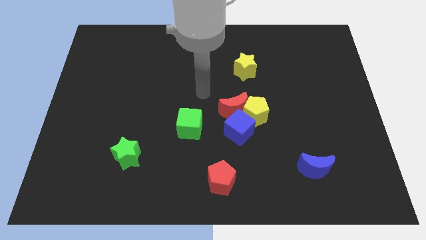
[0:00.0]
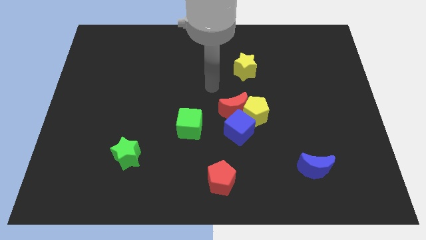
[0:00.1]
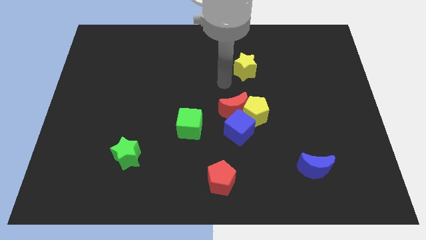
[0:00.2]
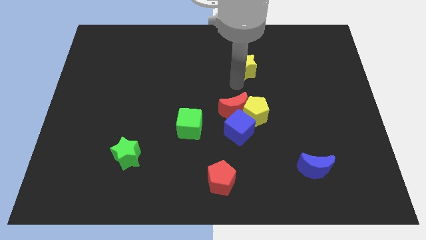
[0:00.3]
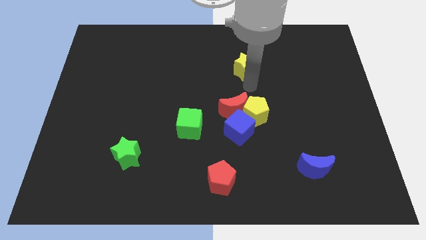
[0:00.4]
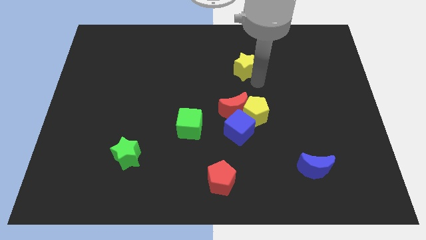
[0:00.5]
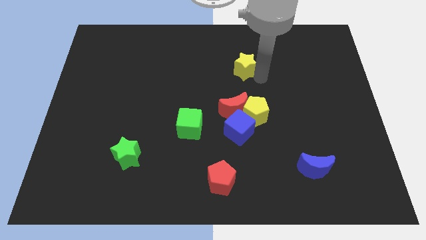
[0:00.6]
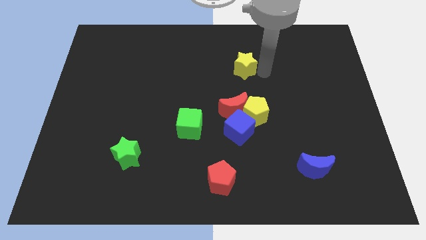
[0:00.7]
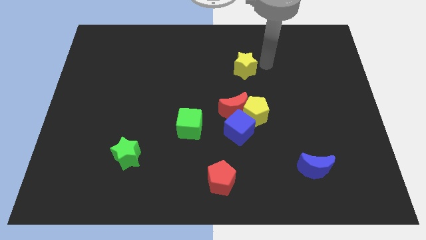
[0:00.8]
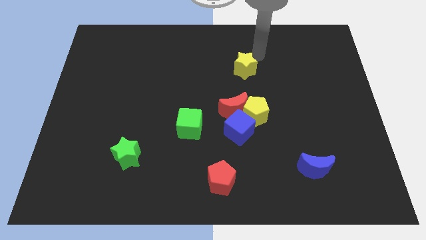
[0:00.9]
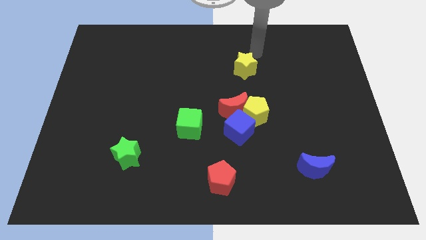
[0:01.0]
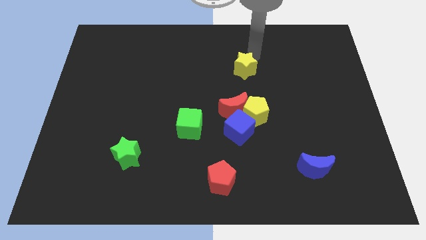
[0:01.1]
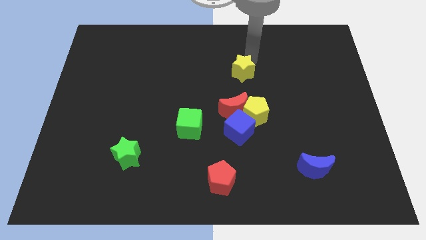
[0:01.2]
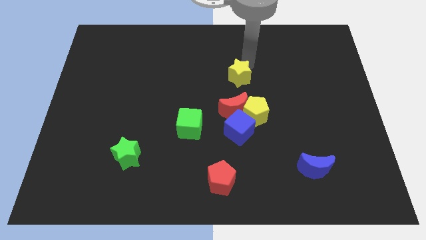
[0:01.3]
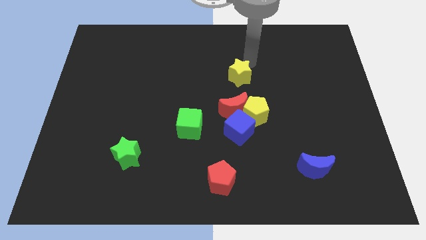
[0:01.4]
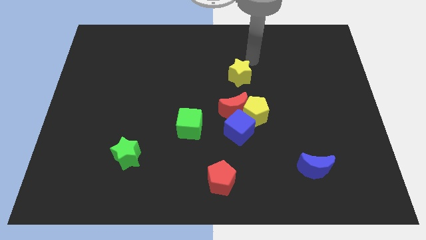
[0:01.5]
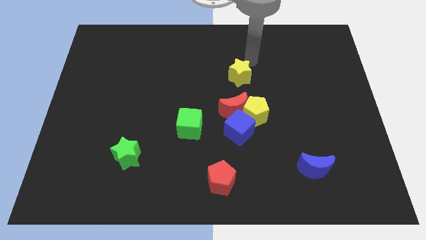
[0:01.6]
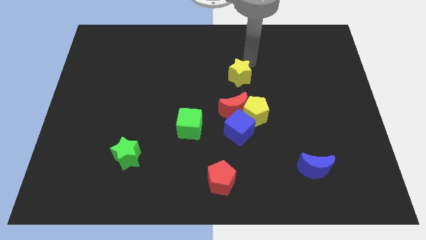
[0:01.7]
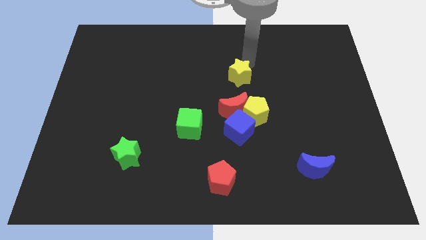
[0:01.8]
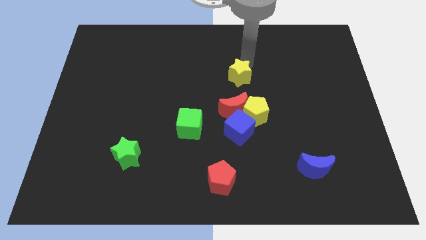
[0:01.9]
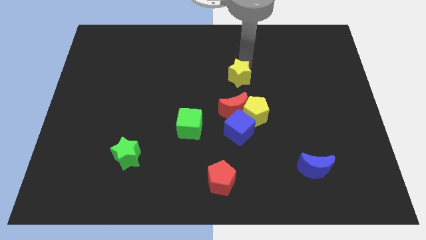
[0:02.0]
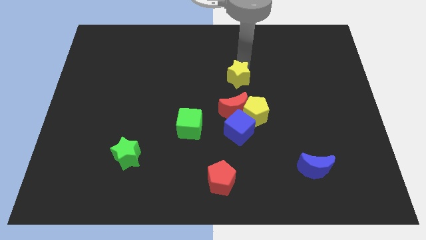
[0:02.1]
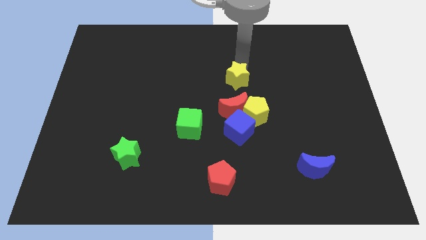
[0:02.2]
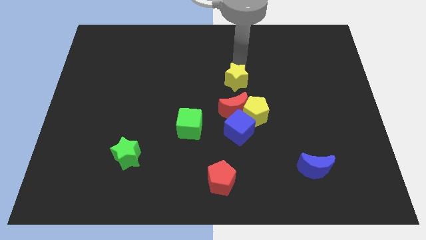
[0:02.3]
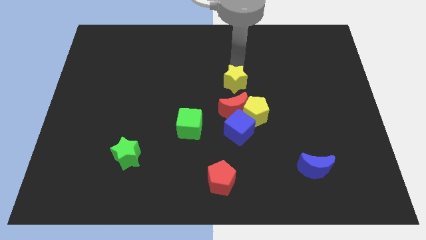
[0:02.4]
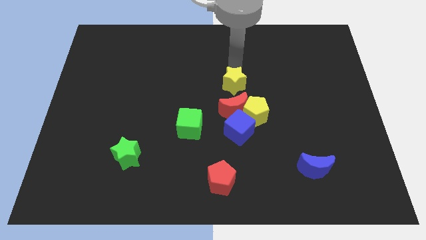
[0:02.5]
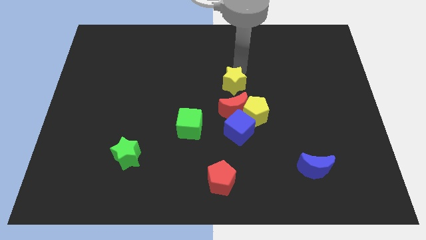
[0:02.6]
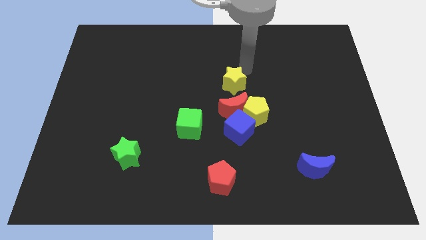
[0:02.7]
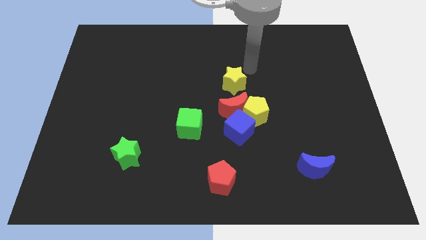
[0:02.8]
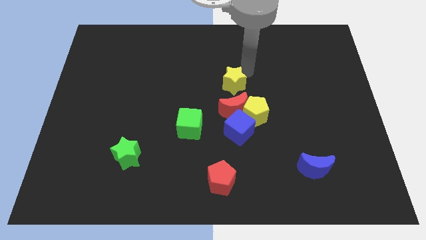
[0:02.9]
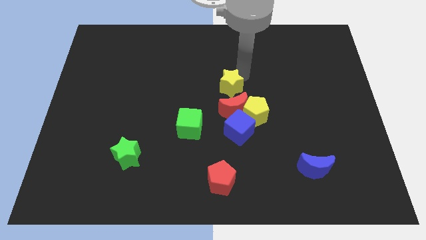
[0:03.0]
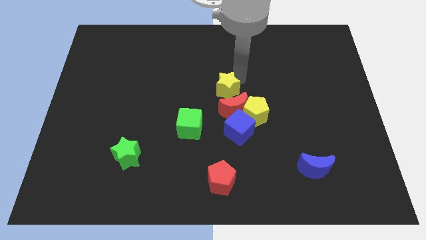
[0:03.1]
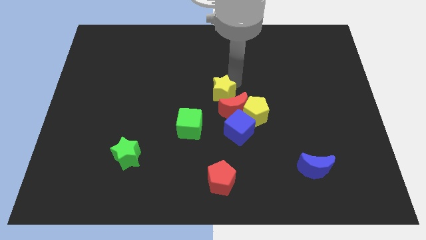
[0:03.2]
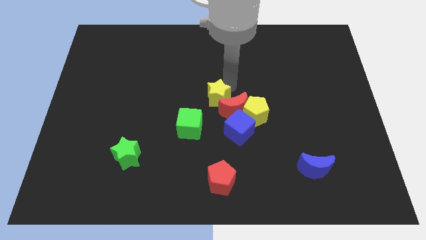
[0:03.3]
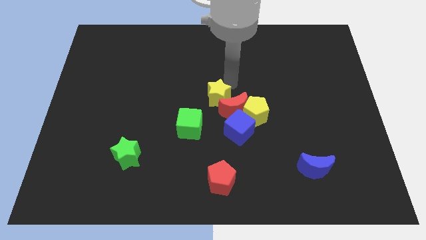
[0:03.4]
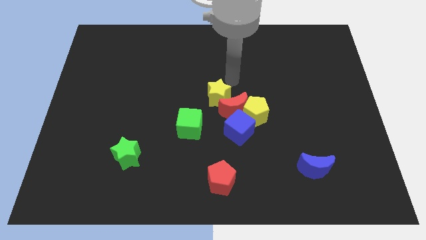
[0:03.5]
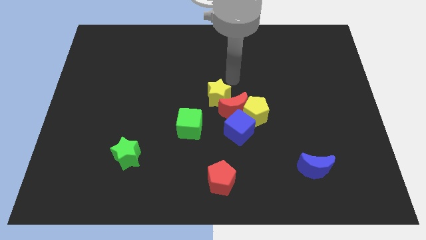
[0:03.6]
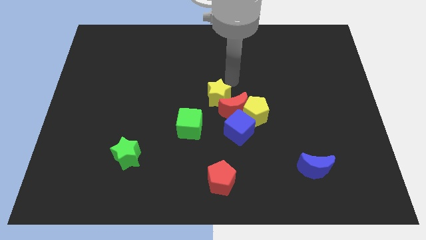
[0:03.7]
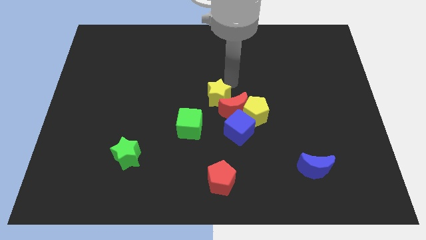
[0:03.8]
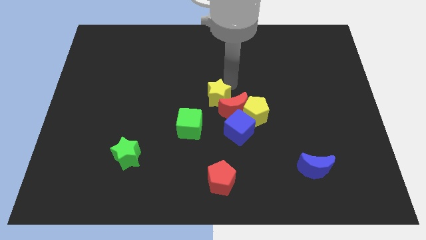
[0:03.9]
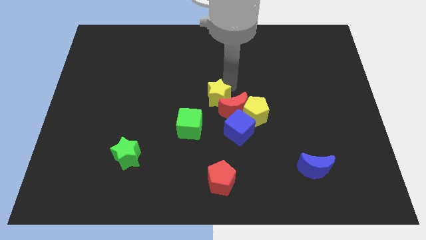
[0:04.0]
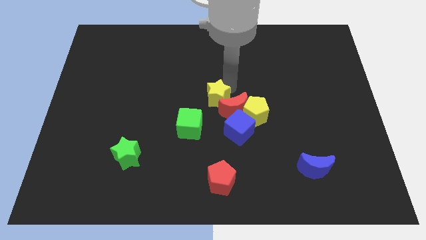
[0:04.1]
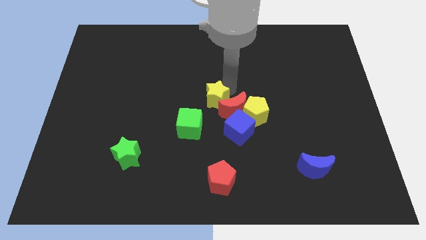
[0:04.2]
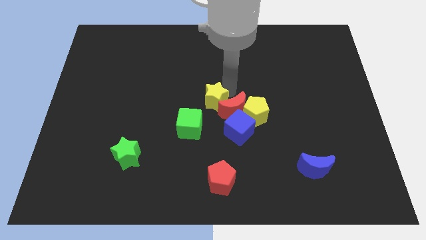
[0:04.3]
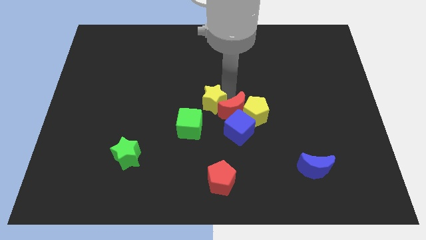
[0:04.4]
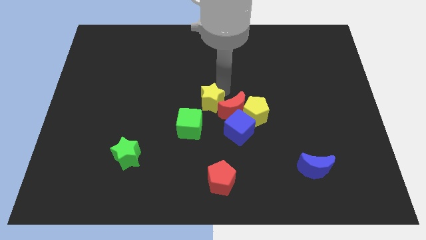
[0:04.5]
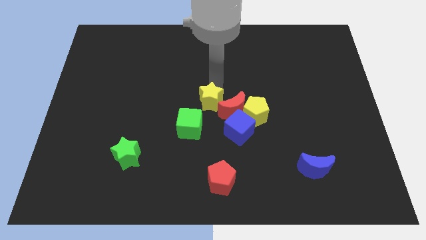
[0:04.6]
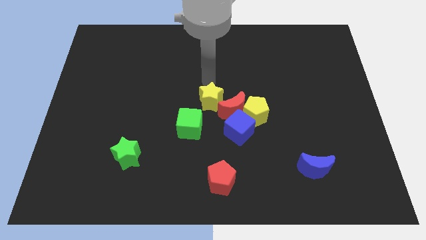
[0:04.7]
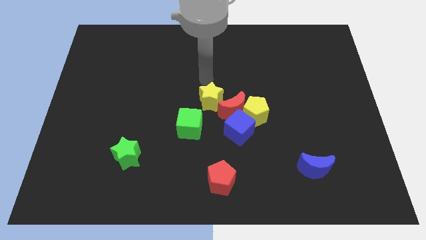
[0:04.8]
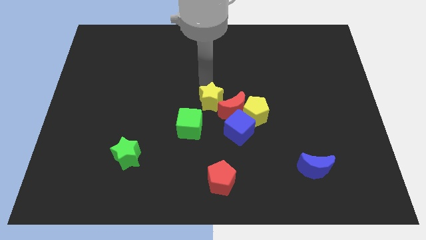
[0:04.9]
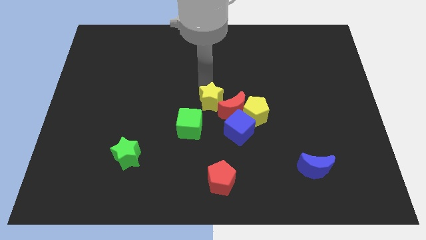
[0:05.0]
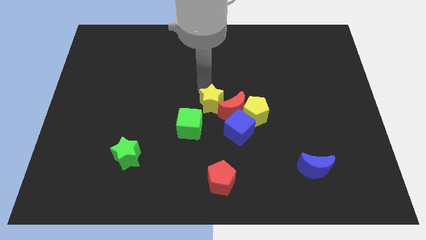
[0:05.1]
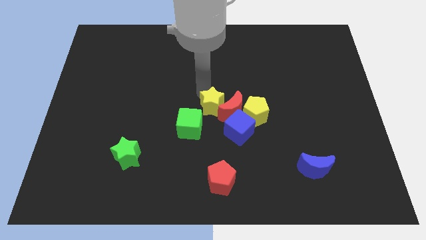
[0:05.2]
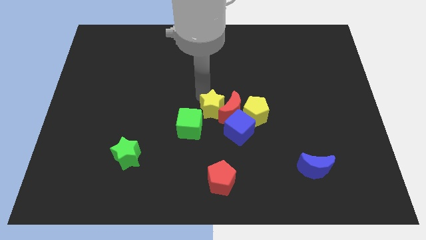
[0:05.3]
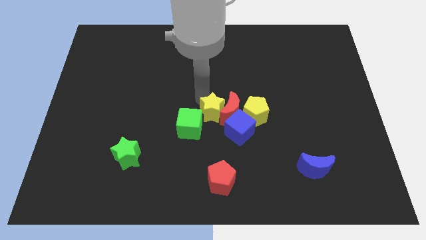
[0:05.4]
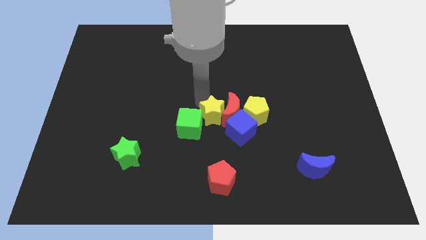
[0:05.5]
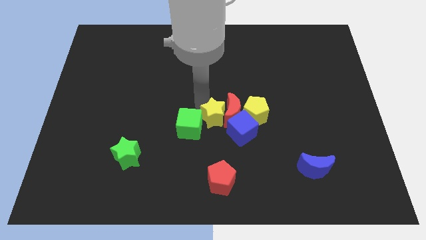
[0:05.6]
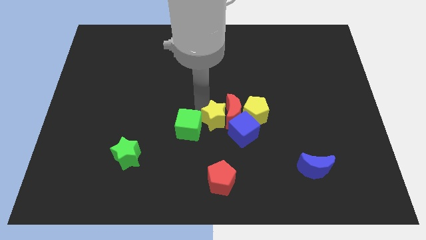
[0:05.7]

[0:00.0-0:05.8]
push the yellow star above the red pentagon

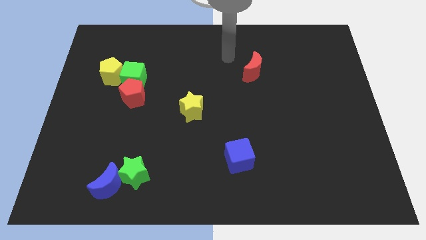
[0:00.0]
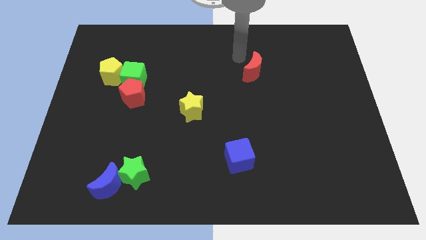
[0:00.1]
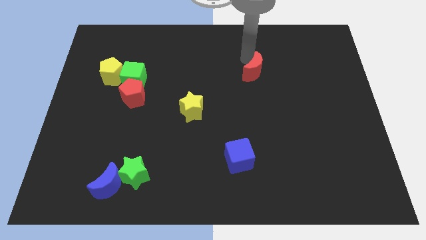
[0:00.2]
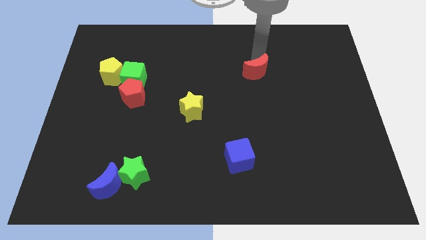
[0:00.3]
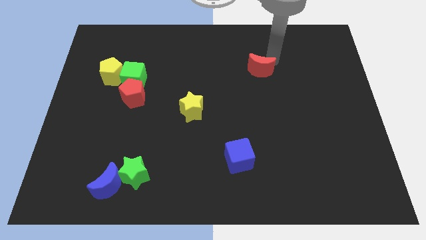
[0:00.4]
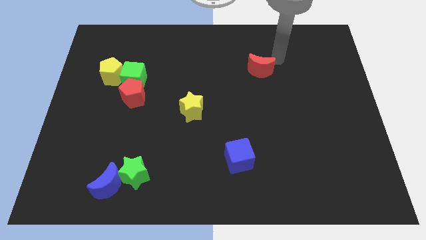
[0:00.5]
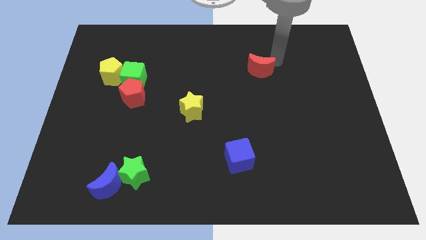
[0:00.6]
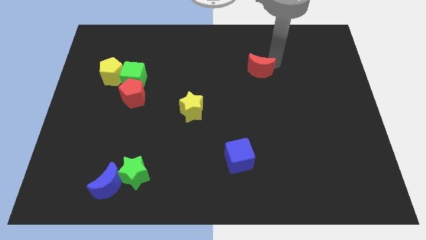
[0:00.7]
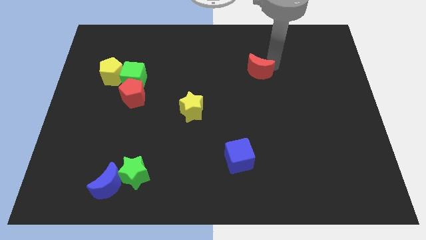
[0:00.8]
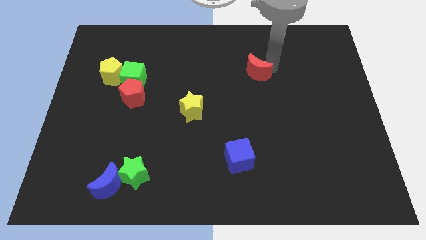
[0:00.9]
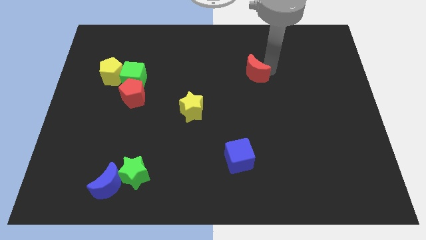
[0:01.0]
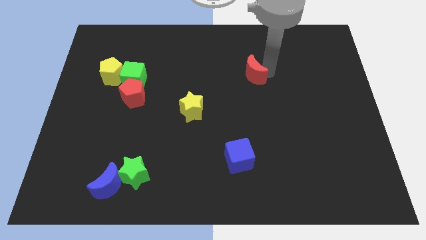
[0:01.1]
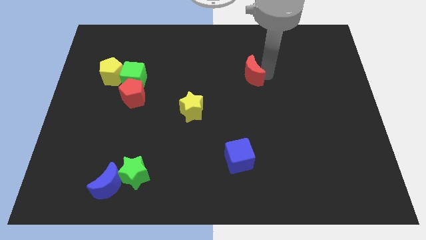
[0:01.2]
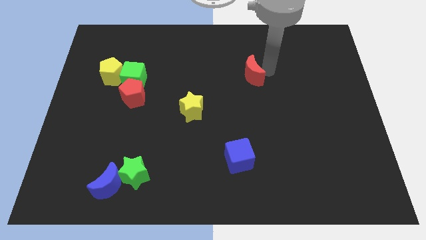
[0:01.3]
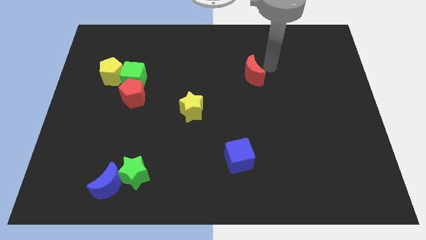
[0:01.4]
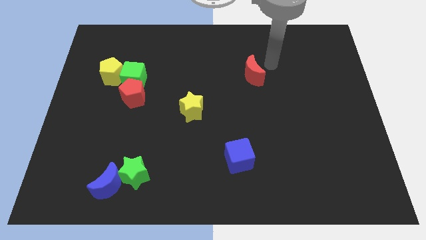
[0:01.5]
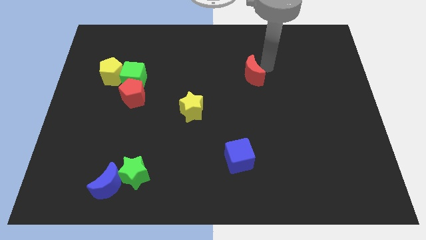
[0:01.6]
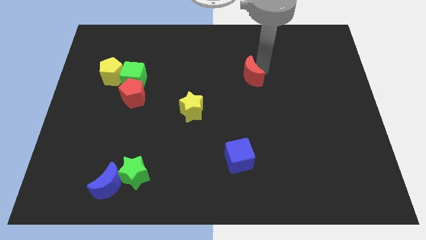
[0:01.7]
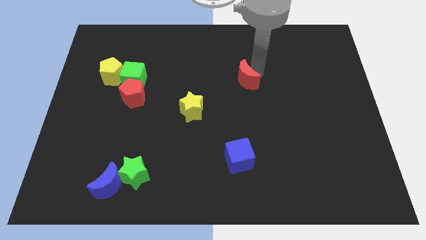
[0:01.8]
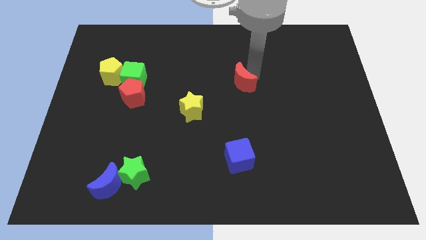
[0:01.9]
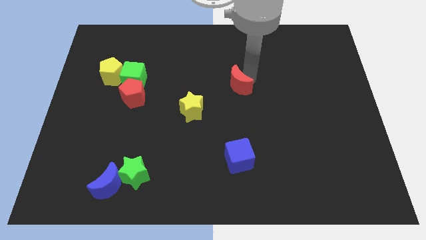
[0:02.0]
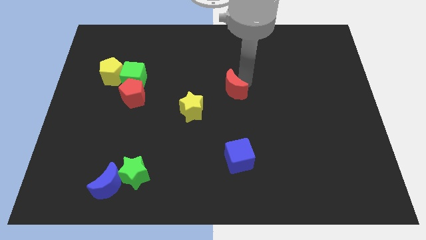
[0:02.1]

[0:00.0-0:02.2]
slide the red moon to the top right side of the yellow star

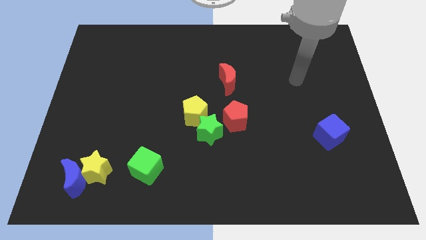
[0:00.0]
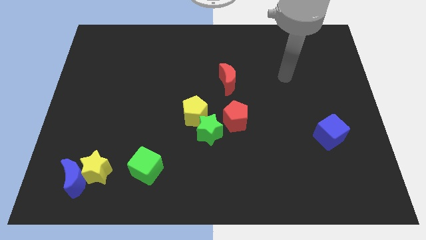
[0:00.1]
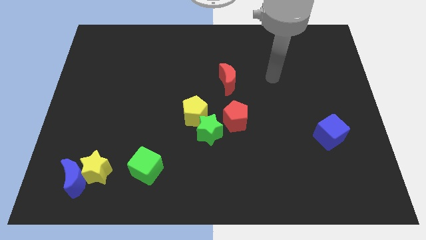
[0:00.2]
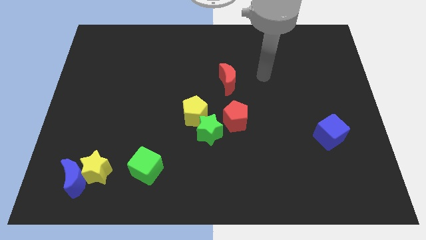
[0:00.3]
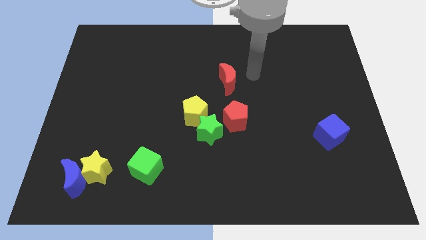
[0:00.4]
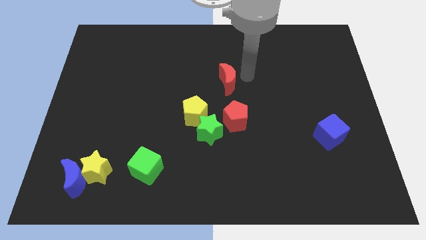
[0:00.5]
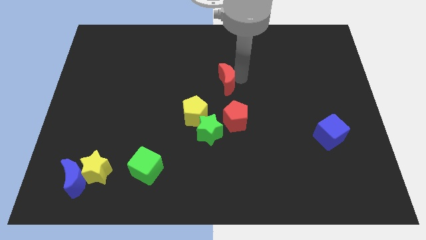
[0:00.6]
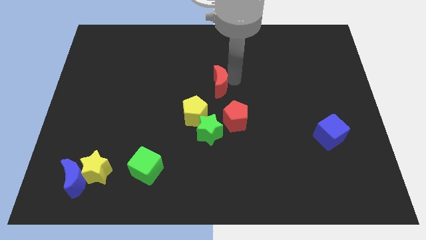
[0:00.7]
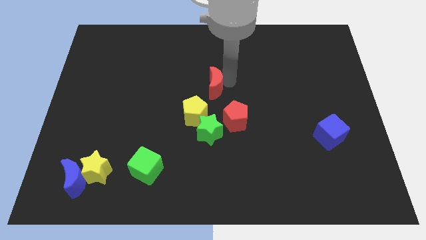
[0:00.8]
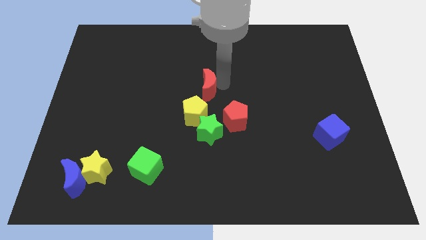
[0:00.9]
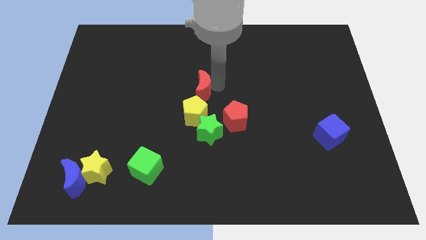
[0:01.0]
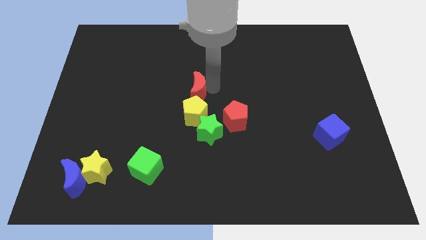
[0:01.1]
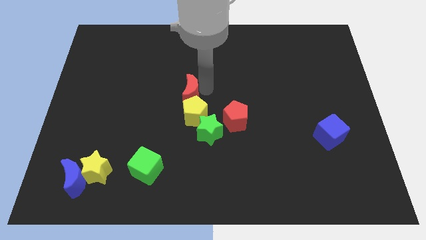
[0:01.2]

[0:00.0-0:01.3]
move the red moon diagonally up and to the left of the yellow pentagon
